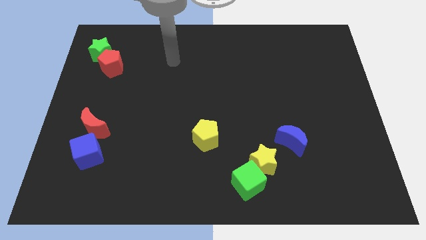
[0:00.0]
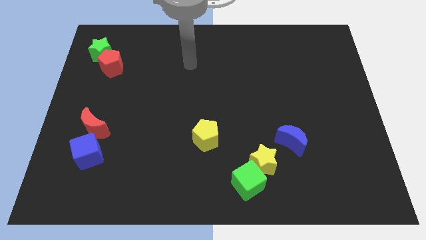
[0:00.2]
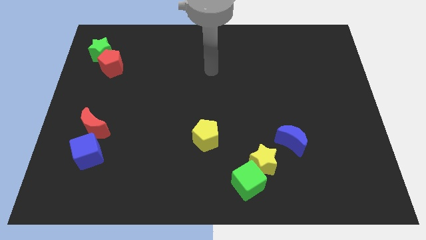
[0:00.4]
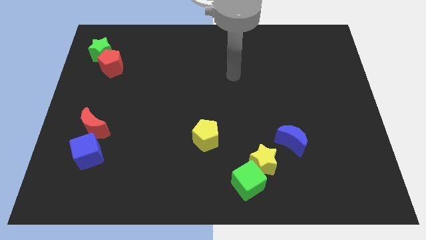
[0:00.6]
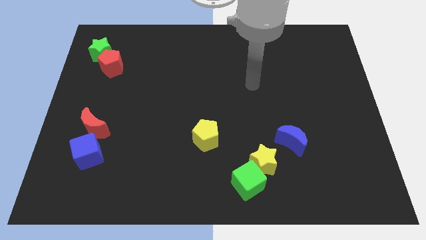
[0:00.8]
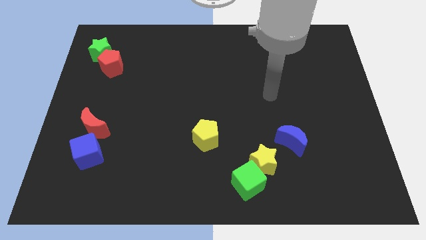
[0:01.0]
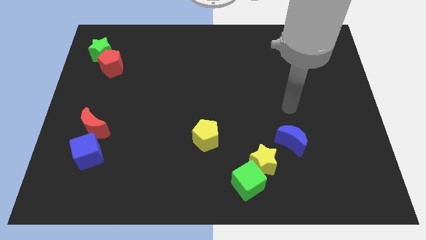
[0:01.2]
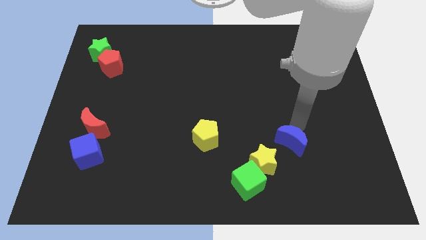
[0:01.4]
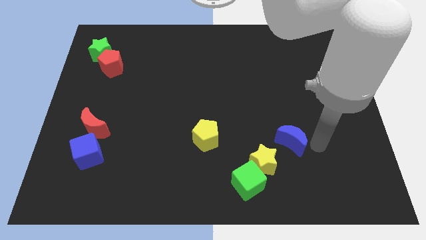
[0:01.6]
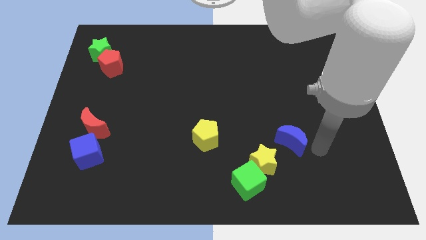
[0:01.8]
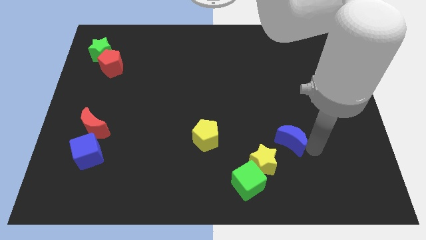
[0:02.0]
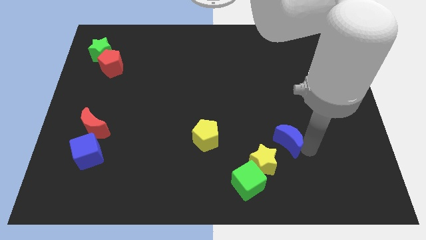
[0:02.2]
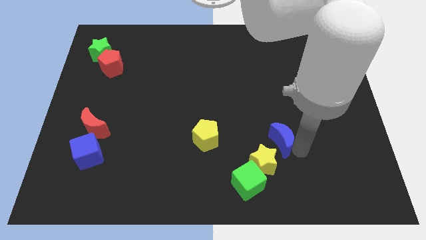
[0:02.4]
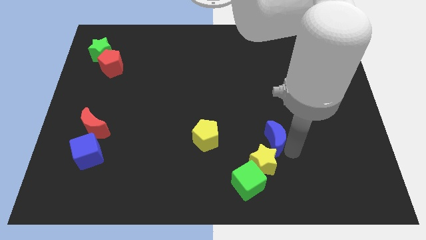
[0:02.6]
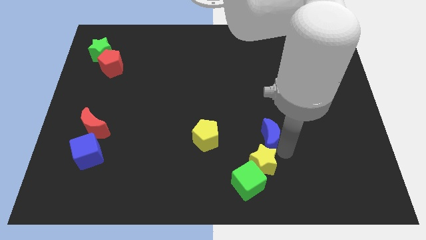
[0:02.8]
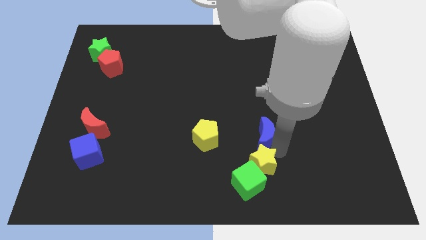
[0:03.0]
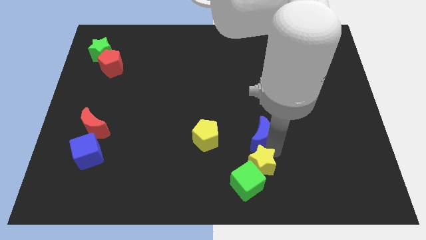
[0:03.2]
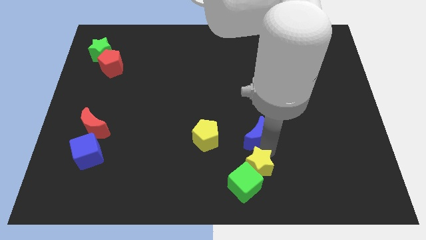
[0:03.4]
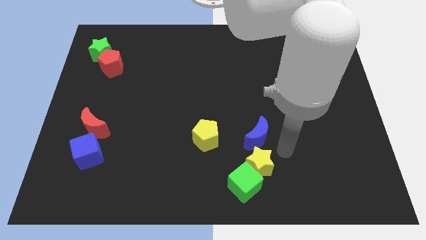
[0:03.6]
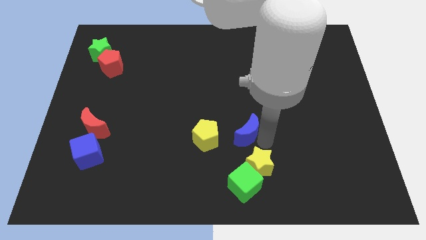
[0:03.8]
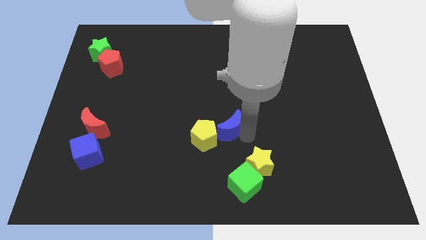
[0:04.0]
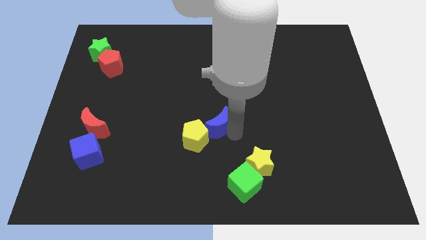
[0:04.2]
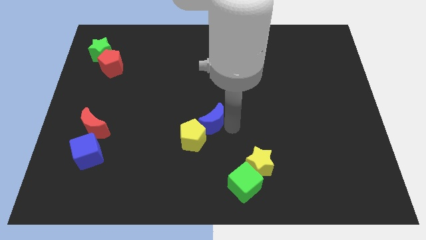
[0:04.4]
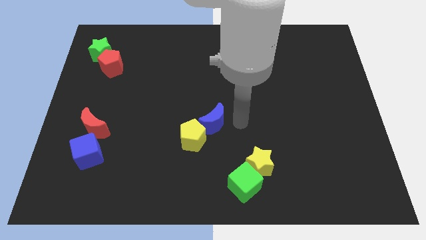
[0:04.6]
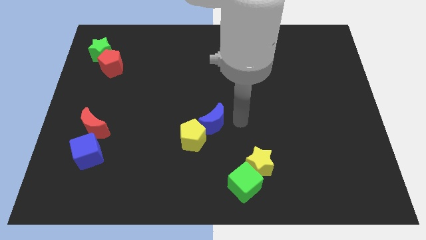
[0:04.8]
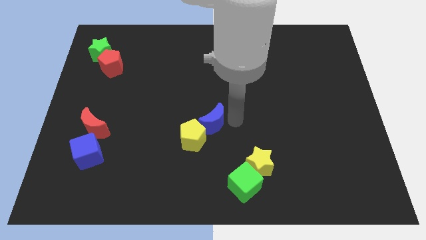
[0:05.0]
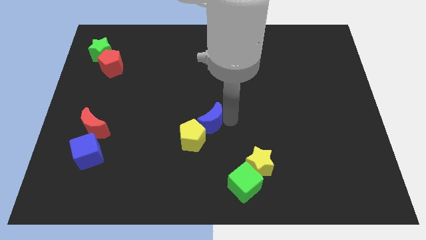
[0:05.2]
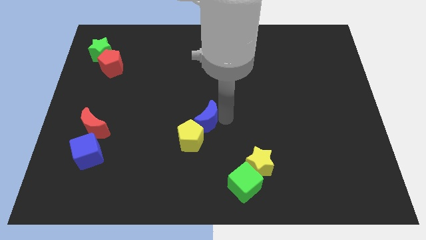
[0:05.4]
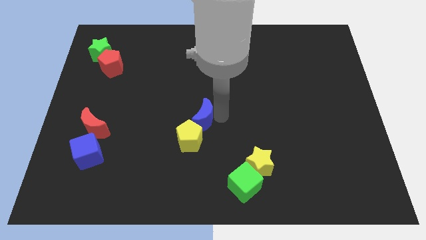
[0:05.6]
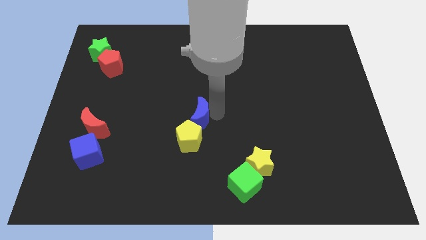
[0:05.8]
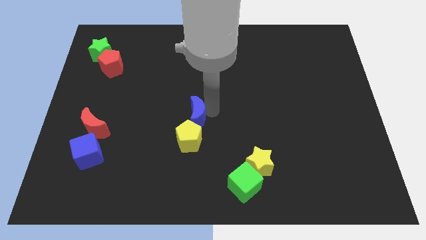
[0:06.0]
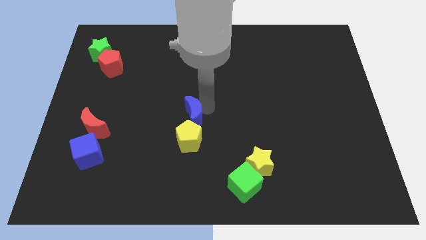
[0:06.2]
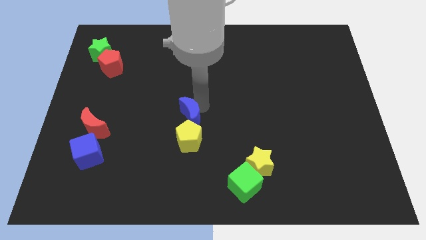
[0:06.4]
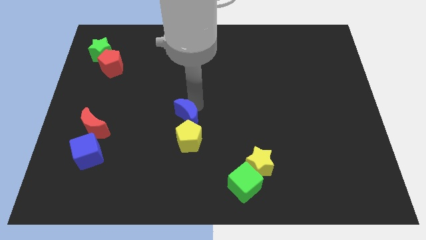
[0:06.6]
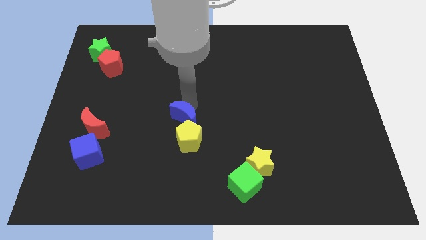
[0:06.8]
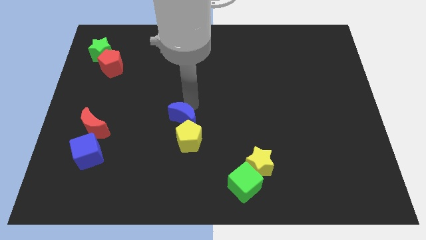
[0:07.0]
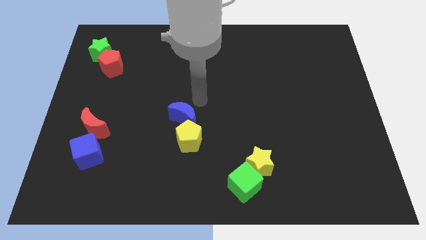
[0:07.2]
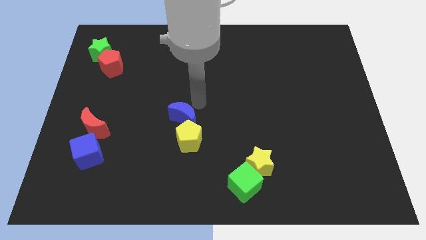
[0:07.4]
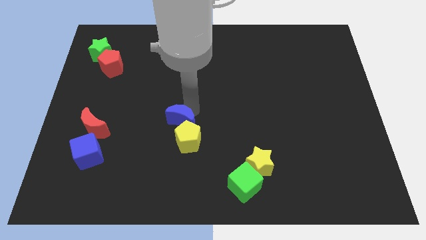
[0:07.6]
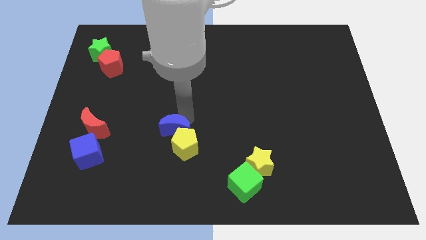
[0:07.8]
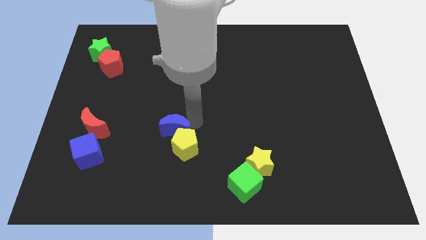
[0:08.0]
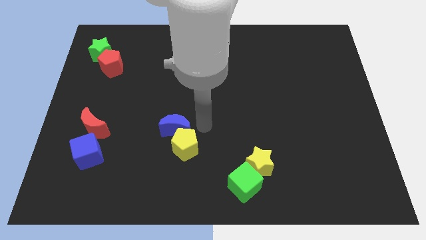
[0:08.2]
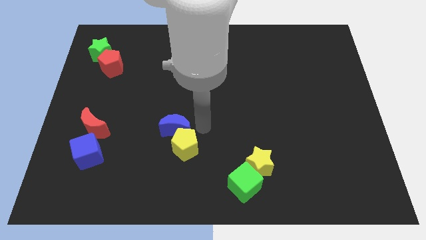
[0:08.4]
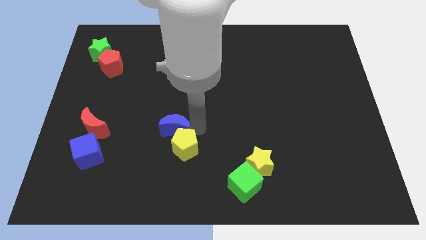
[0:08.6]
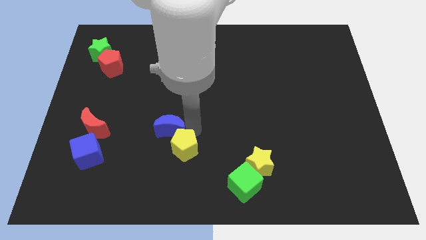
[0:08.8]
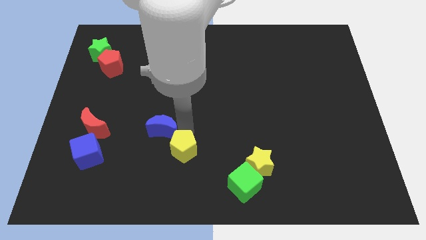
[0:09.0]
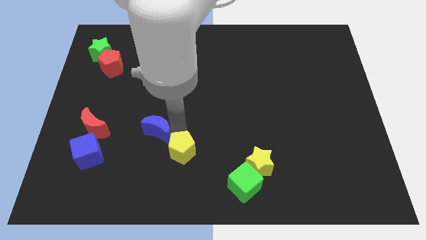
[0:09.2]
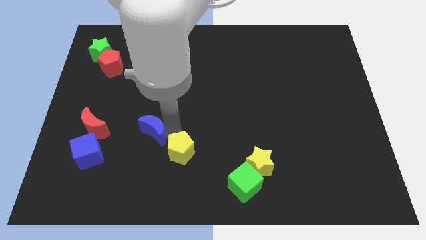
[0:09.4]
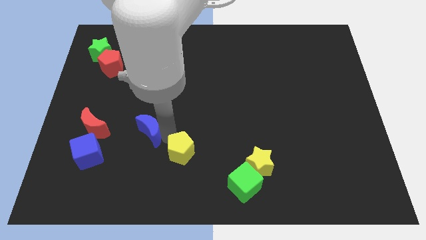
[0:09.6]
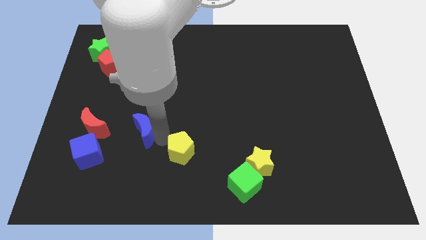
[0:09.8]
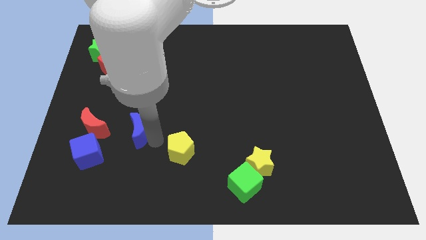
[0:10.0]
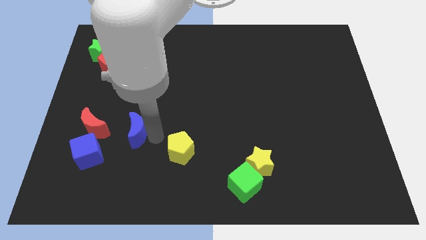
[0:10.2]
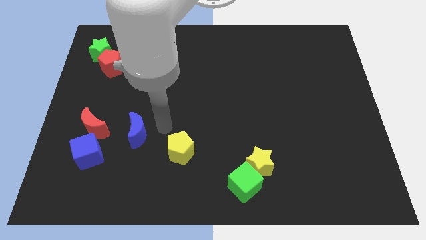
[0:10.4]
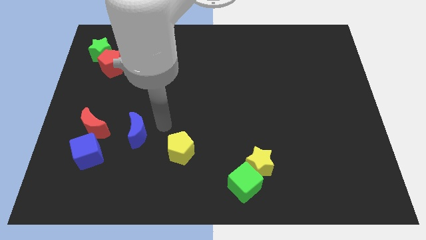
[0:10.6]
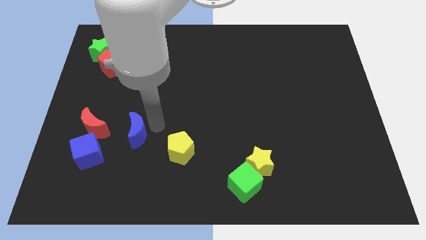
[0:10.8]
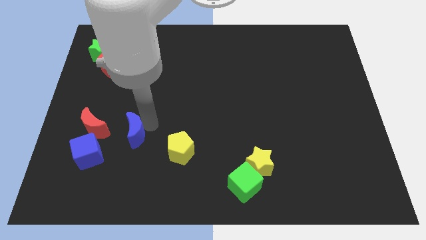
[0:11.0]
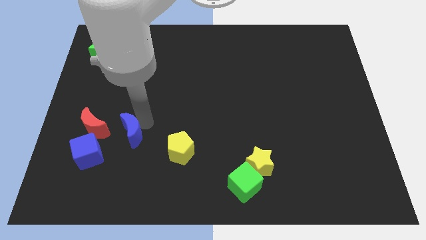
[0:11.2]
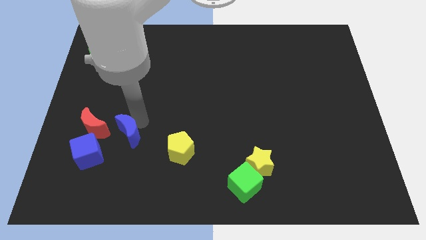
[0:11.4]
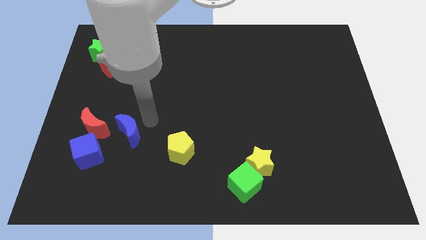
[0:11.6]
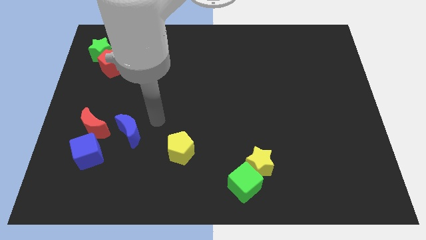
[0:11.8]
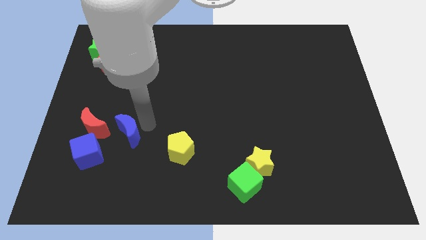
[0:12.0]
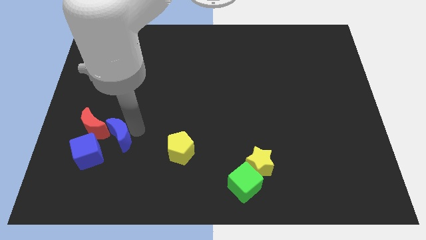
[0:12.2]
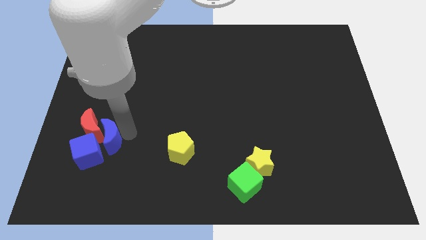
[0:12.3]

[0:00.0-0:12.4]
slide the blue moon to the blue cube

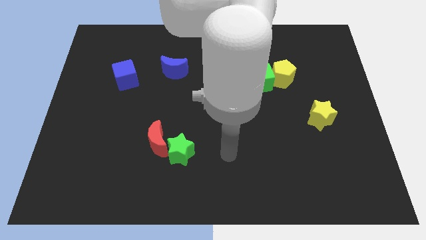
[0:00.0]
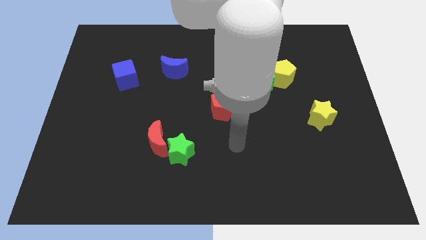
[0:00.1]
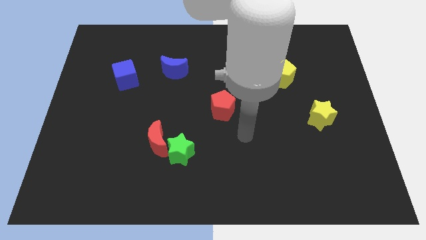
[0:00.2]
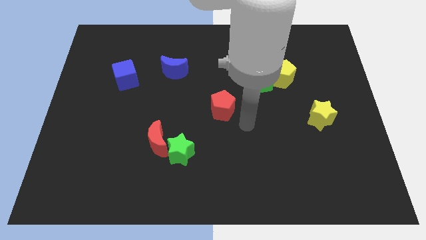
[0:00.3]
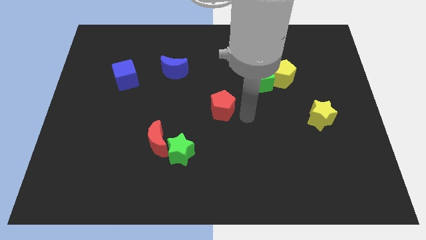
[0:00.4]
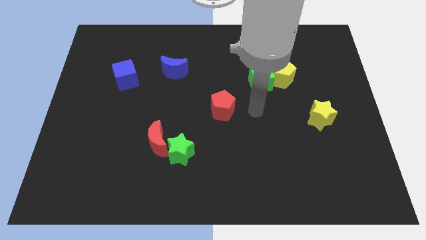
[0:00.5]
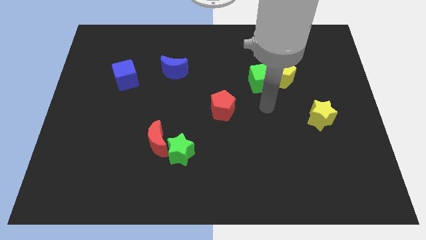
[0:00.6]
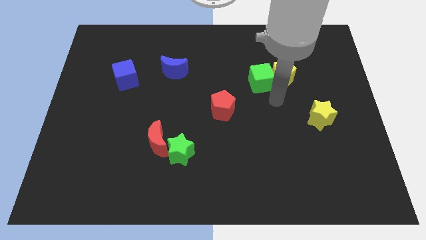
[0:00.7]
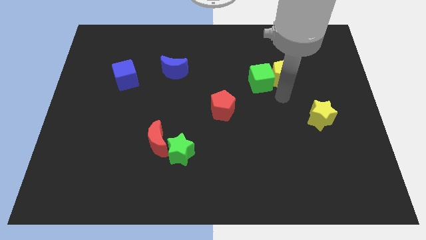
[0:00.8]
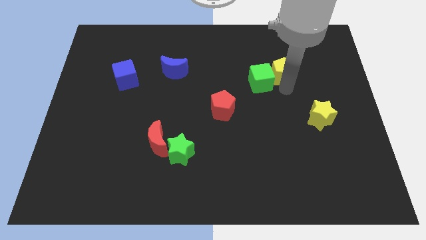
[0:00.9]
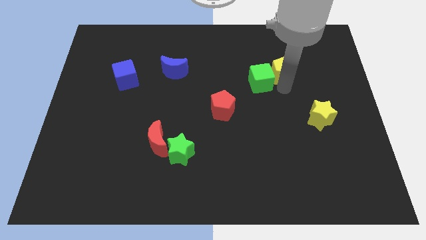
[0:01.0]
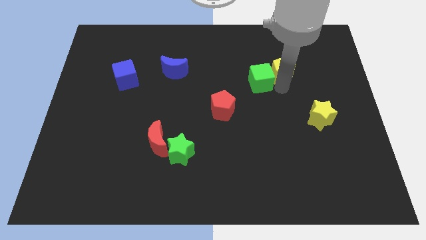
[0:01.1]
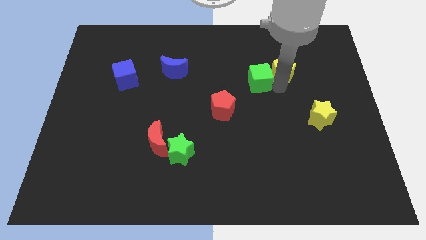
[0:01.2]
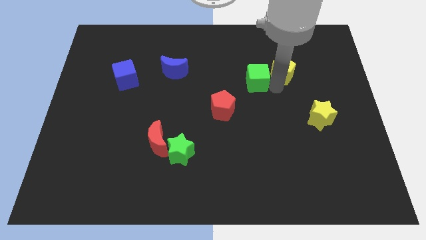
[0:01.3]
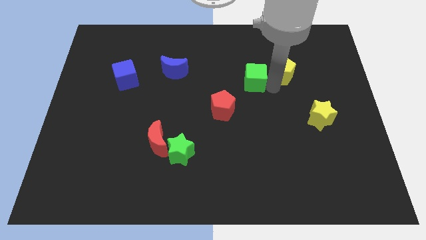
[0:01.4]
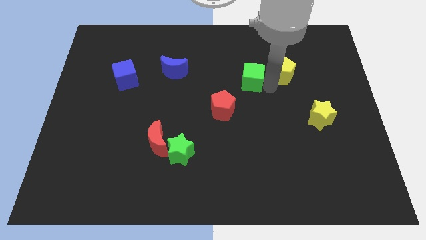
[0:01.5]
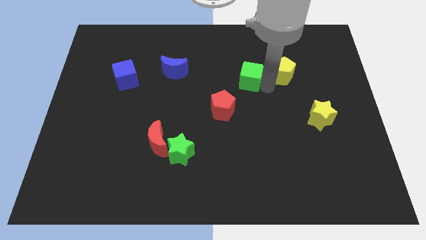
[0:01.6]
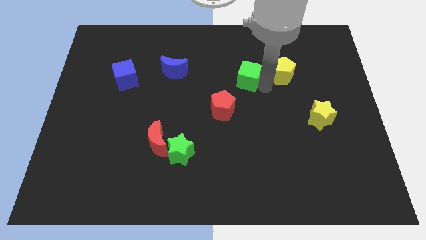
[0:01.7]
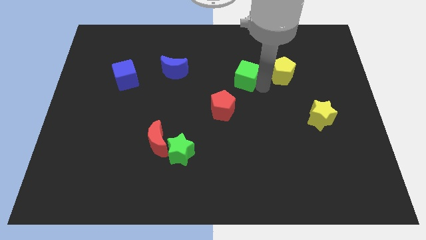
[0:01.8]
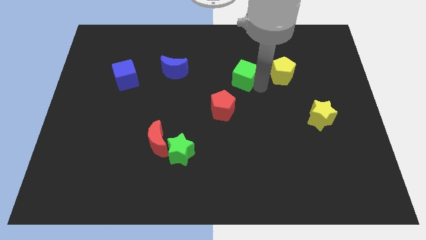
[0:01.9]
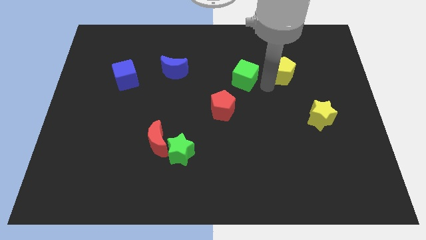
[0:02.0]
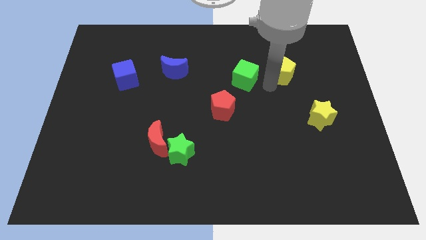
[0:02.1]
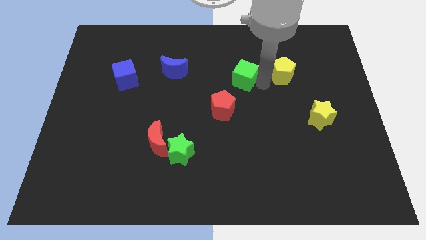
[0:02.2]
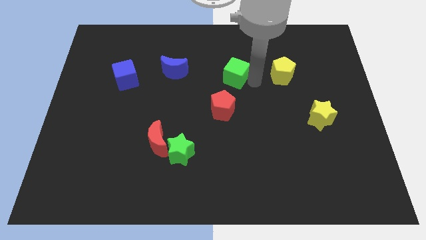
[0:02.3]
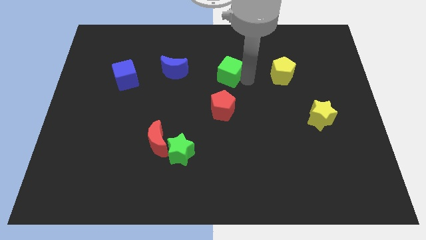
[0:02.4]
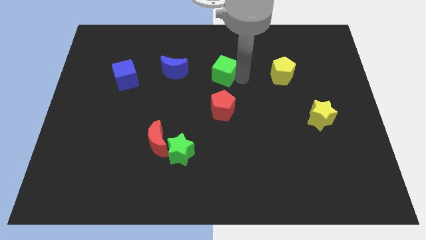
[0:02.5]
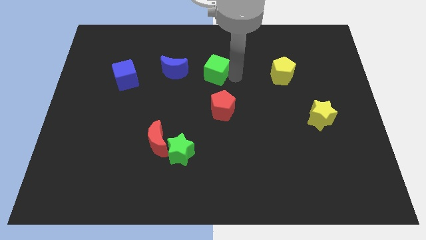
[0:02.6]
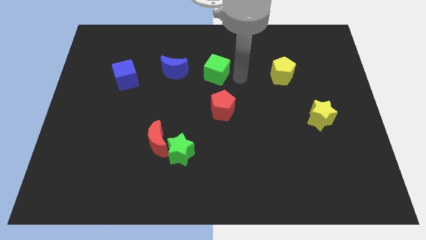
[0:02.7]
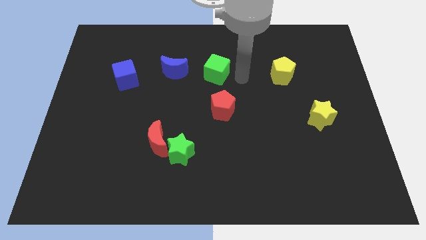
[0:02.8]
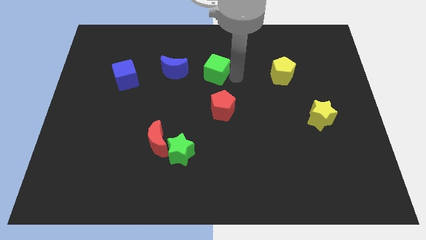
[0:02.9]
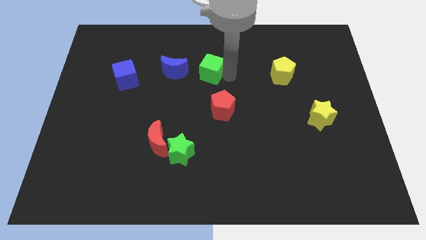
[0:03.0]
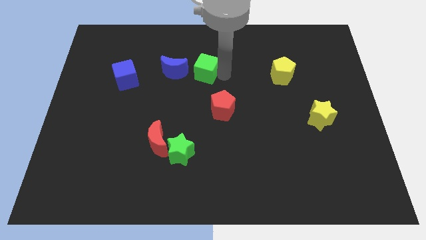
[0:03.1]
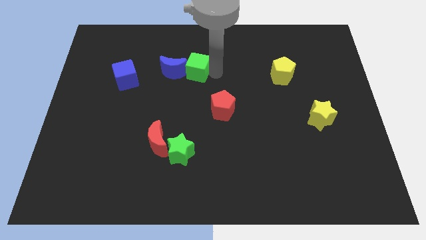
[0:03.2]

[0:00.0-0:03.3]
slide the green cube next to the blue moon
